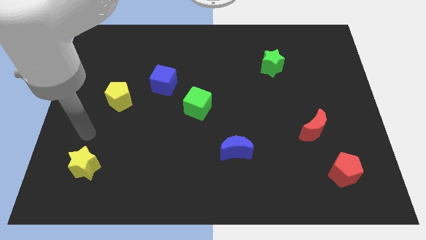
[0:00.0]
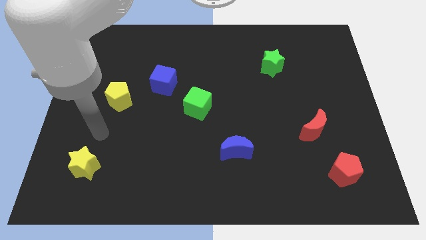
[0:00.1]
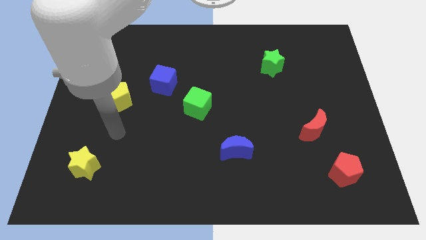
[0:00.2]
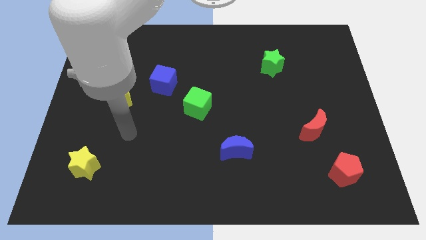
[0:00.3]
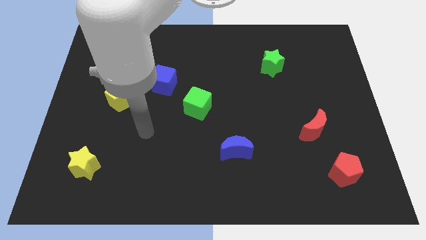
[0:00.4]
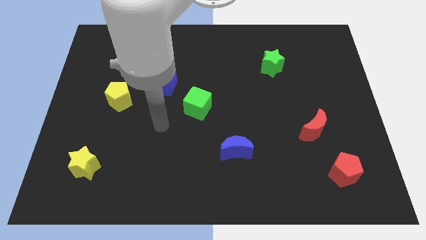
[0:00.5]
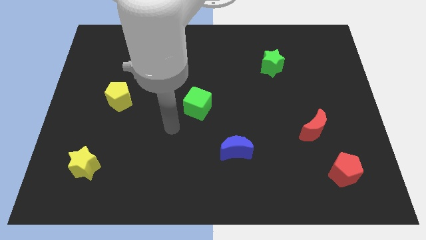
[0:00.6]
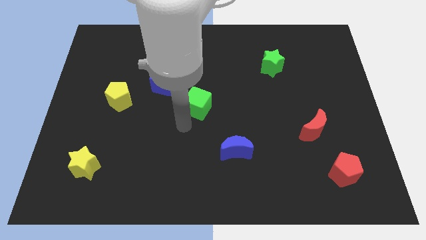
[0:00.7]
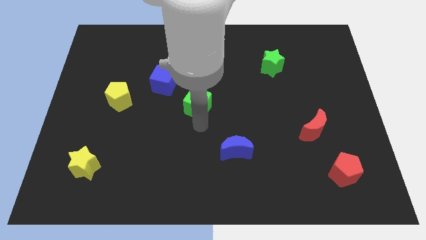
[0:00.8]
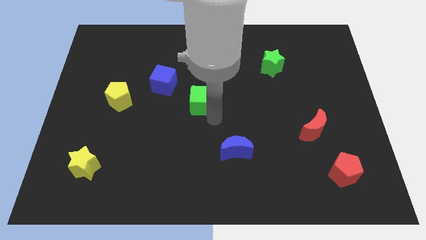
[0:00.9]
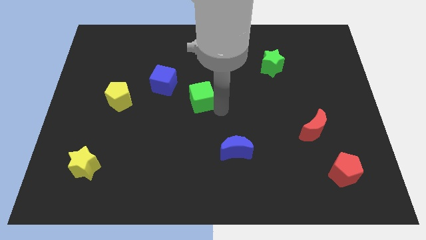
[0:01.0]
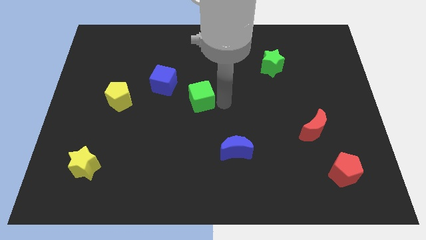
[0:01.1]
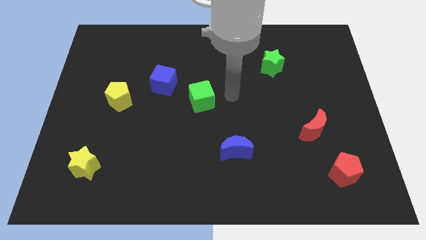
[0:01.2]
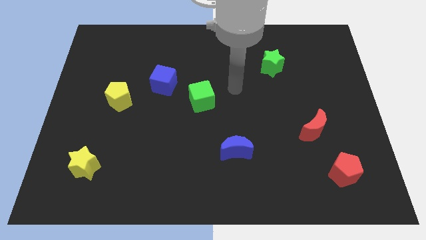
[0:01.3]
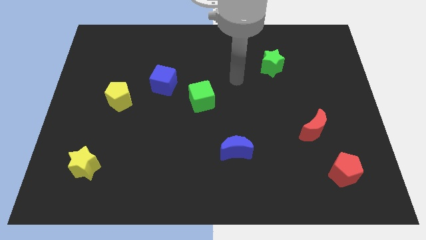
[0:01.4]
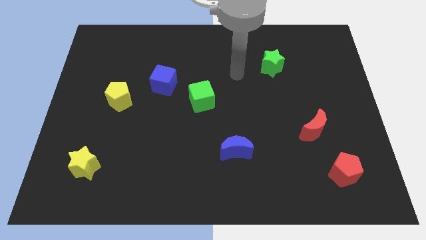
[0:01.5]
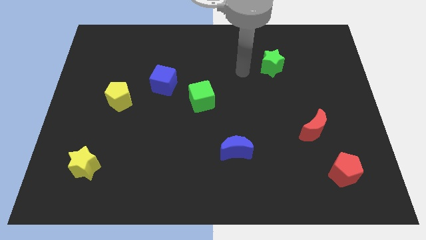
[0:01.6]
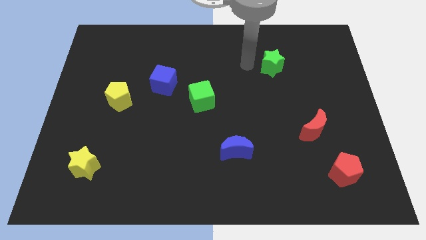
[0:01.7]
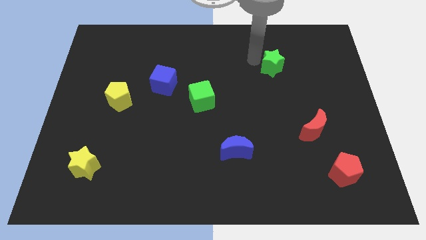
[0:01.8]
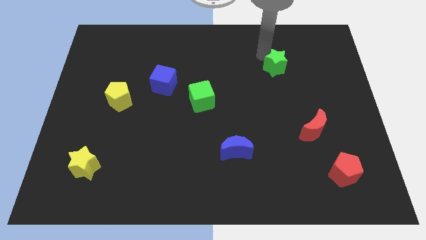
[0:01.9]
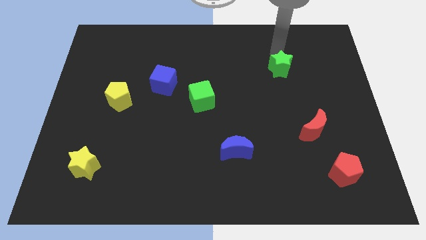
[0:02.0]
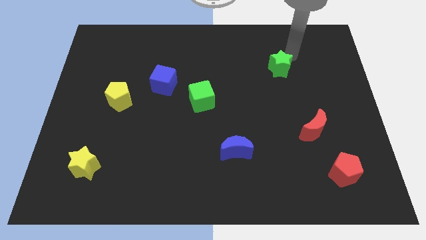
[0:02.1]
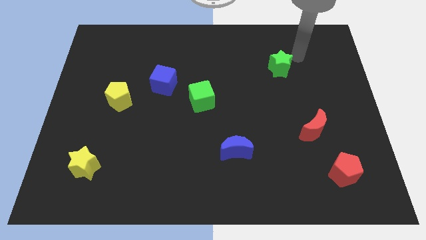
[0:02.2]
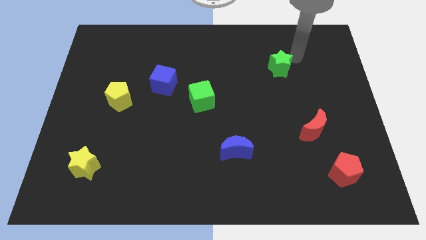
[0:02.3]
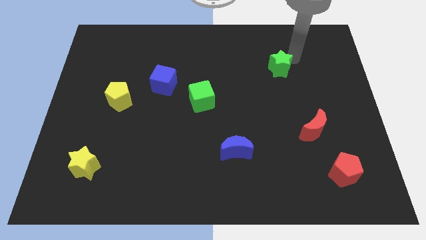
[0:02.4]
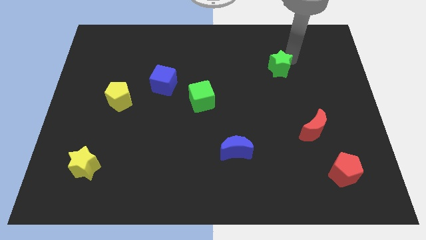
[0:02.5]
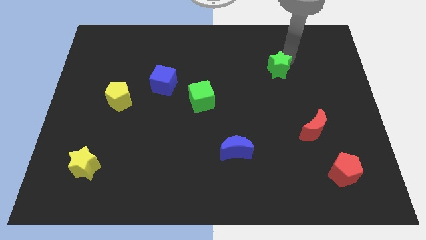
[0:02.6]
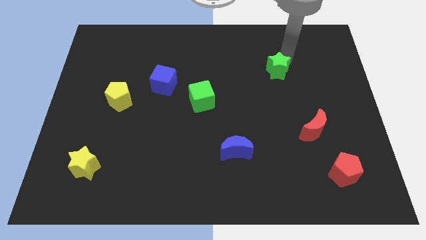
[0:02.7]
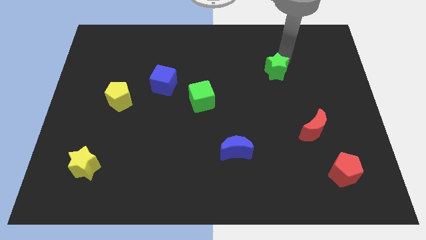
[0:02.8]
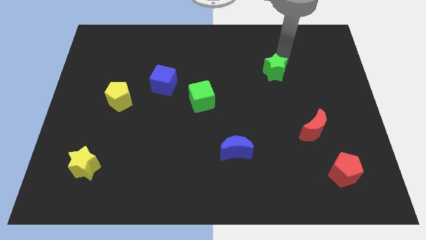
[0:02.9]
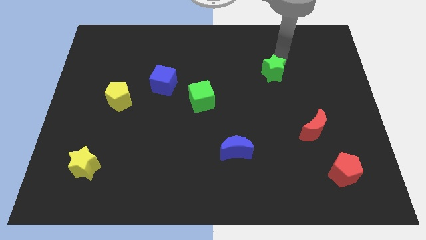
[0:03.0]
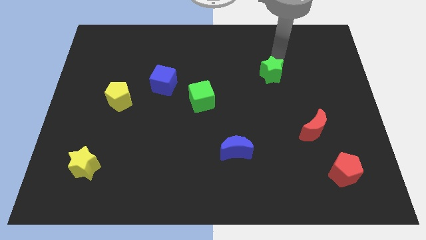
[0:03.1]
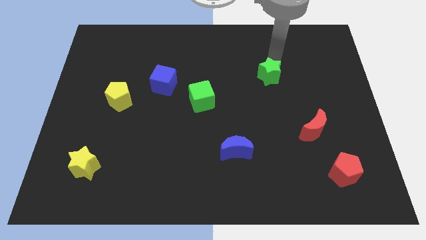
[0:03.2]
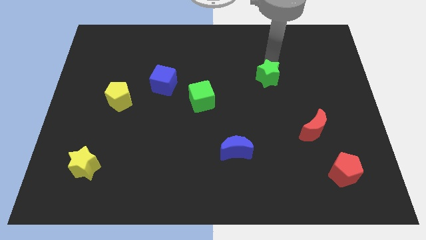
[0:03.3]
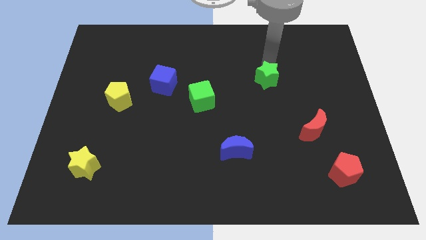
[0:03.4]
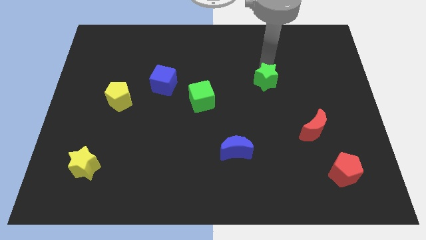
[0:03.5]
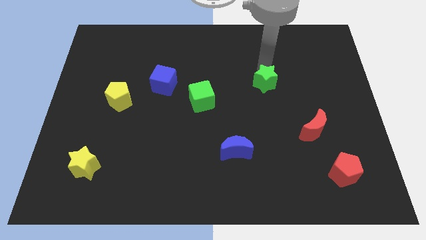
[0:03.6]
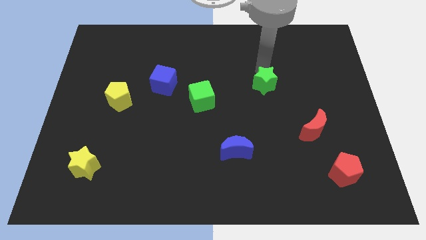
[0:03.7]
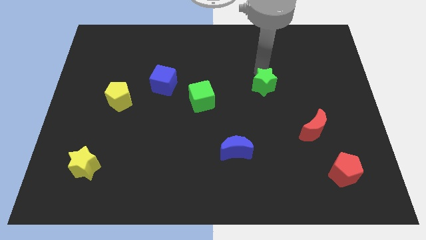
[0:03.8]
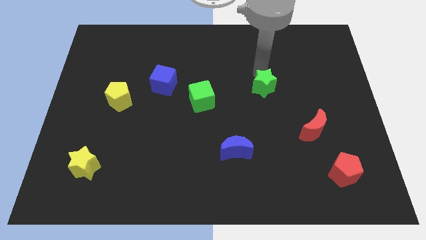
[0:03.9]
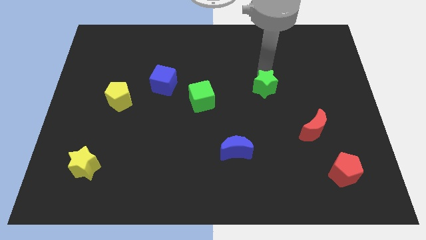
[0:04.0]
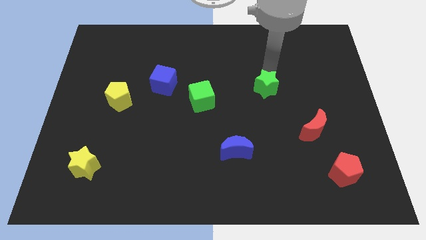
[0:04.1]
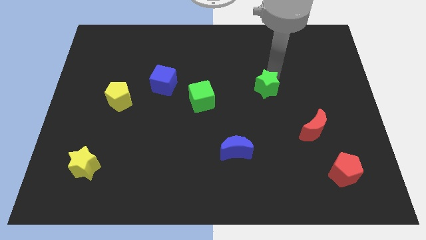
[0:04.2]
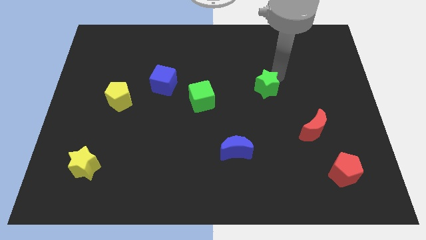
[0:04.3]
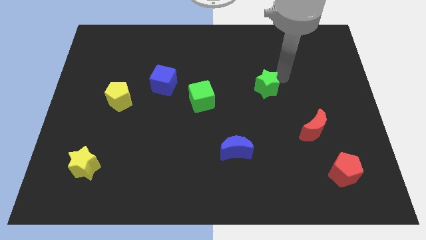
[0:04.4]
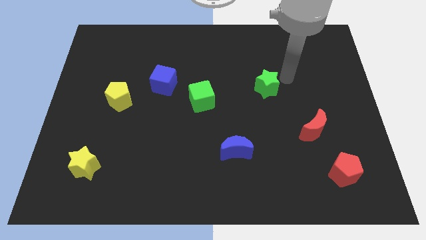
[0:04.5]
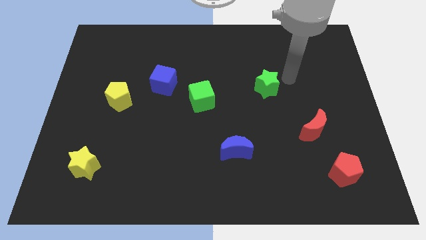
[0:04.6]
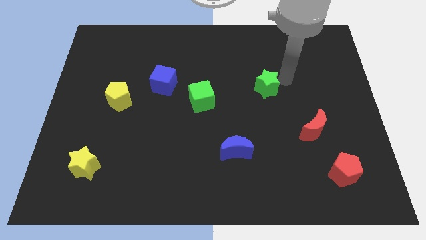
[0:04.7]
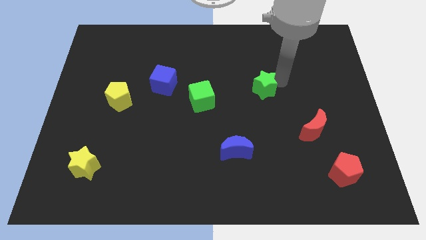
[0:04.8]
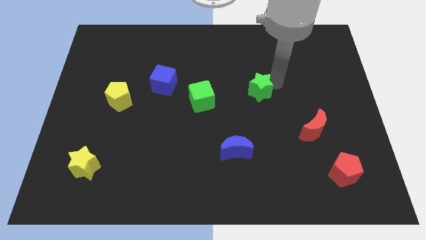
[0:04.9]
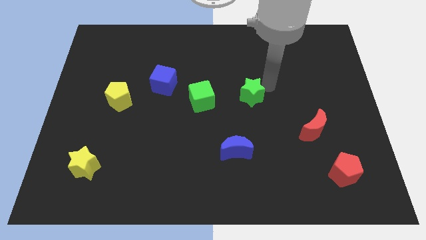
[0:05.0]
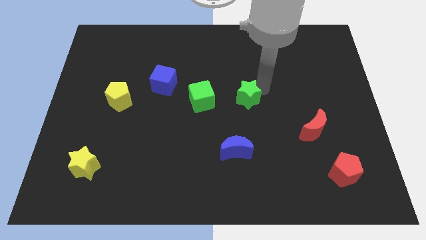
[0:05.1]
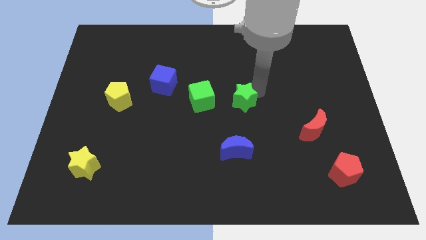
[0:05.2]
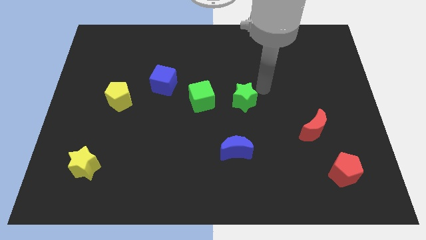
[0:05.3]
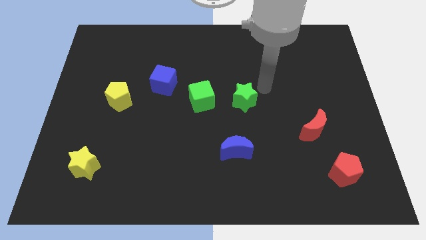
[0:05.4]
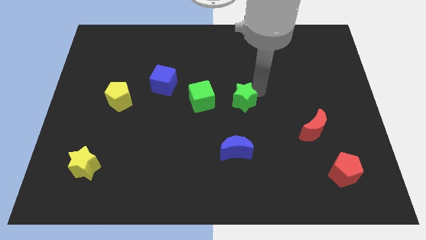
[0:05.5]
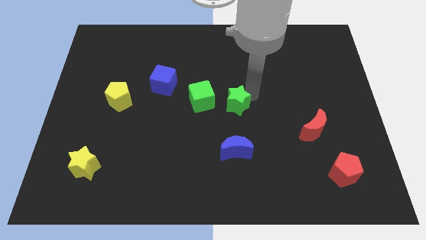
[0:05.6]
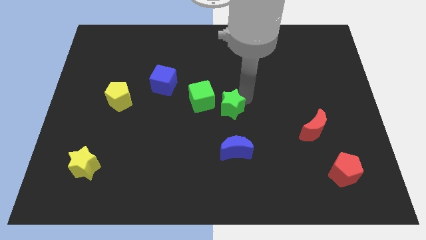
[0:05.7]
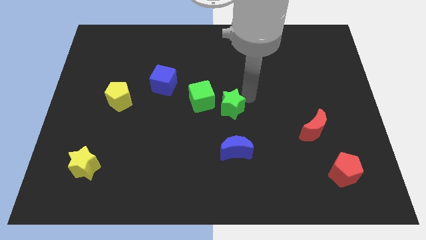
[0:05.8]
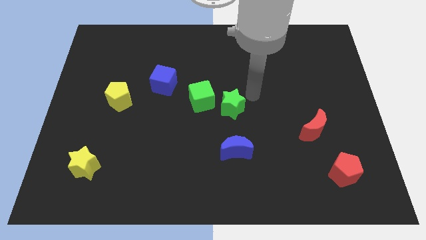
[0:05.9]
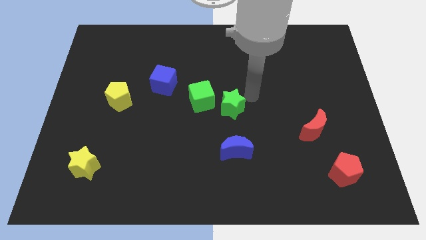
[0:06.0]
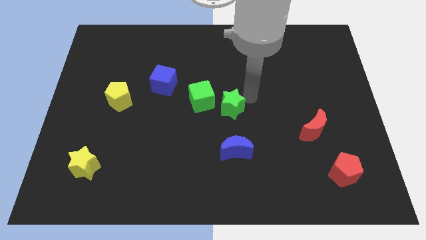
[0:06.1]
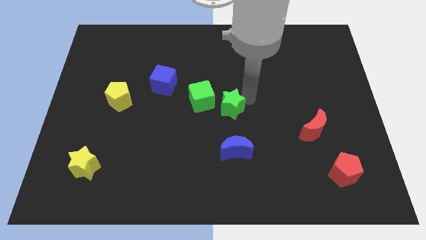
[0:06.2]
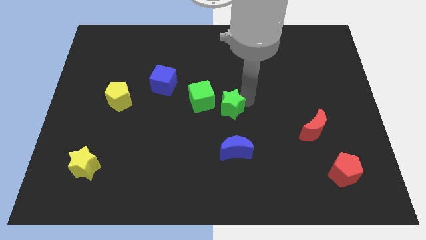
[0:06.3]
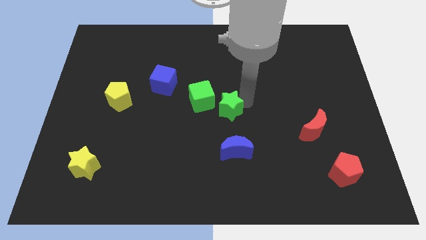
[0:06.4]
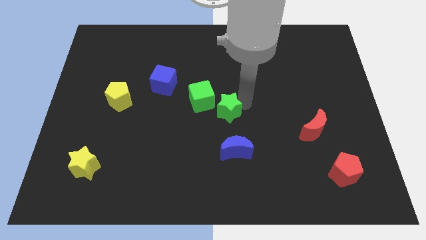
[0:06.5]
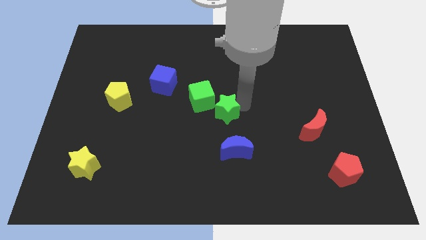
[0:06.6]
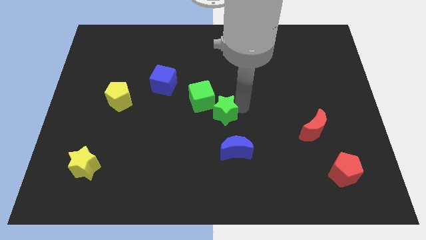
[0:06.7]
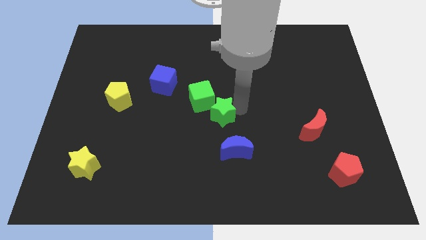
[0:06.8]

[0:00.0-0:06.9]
move the green star diagonally down and to the left

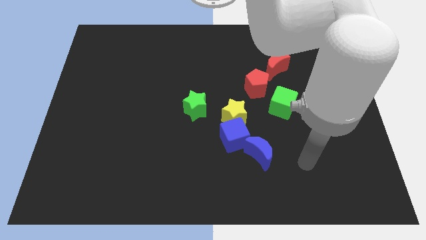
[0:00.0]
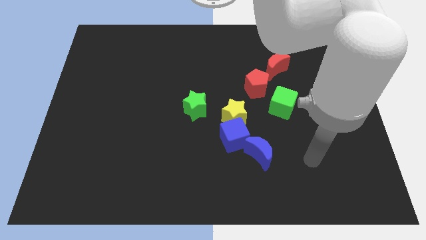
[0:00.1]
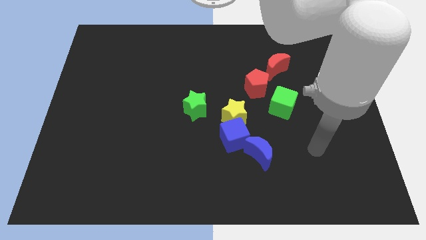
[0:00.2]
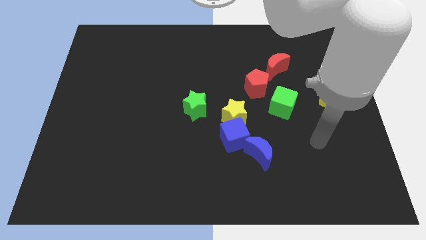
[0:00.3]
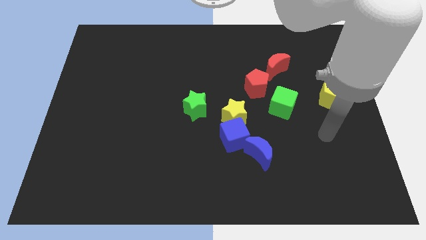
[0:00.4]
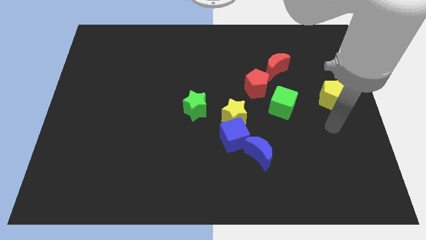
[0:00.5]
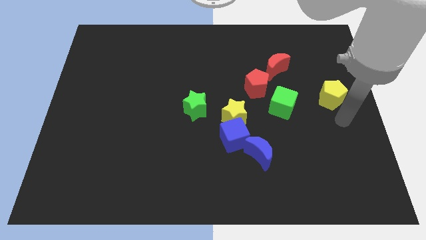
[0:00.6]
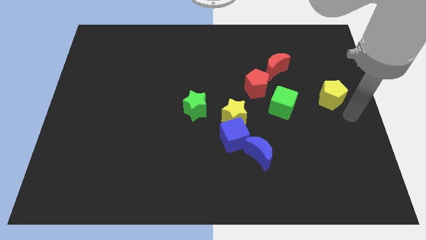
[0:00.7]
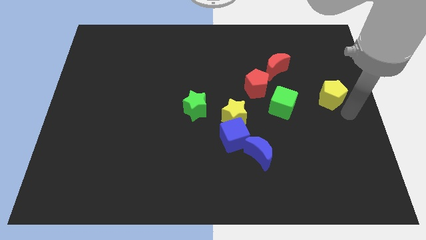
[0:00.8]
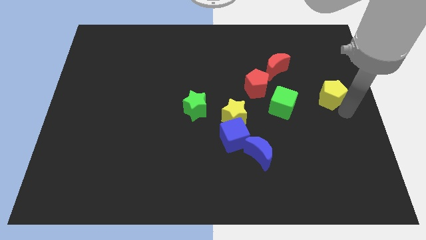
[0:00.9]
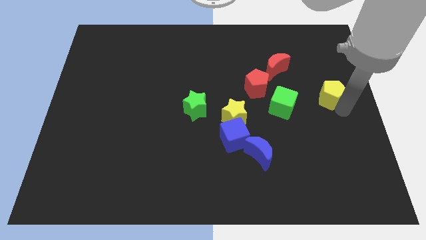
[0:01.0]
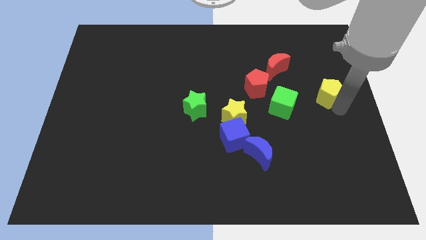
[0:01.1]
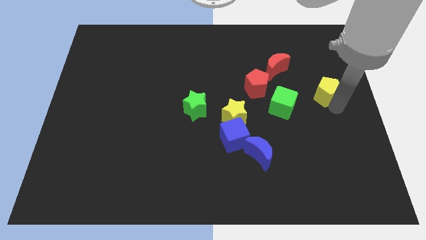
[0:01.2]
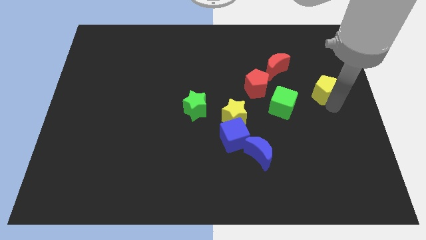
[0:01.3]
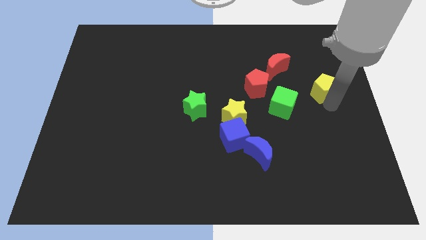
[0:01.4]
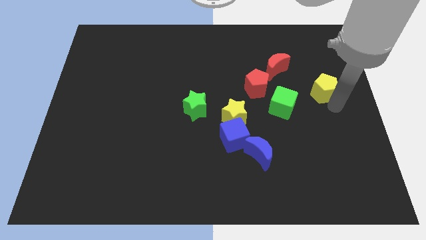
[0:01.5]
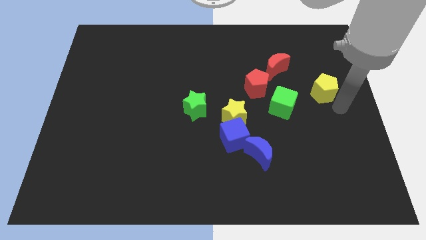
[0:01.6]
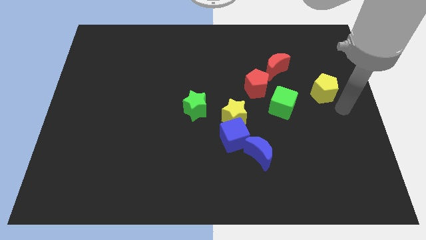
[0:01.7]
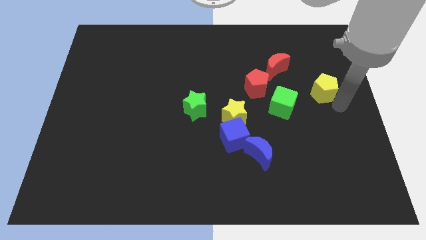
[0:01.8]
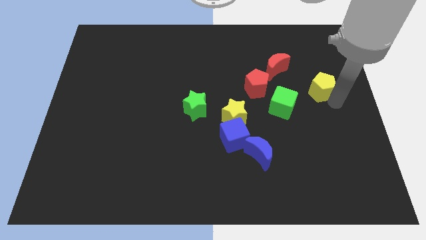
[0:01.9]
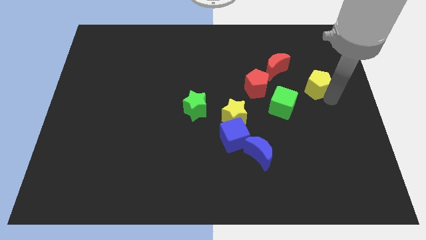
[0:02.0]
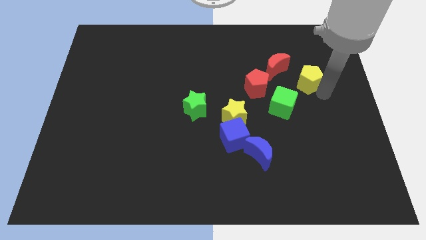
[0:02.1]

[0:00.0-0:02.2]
push the yellow pentagon up and then left slightly
